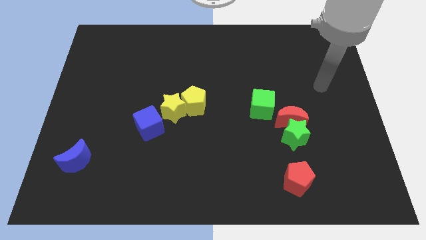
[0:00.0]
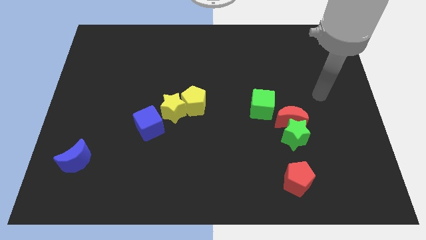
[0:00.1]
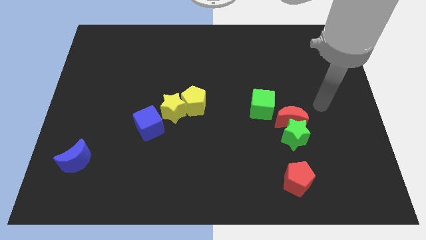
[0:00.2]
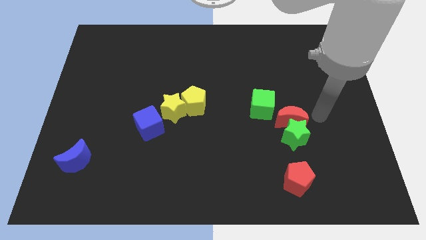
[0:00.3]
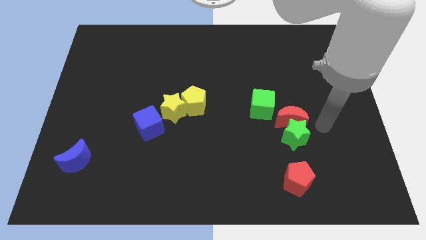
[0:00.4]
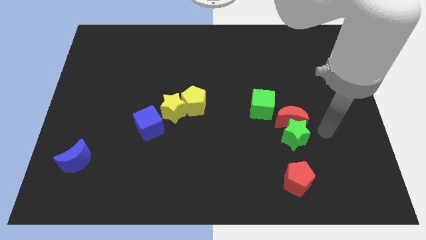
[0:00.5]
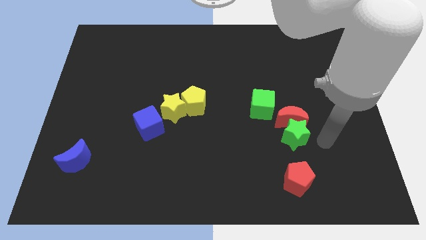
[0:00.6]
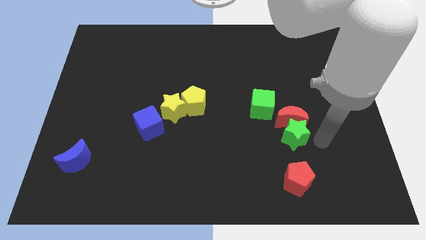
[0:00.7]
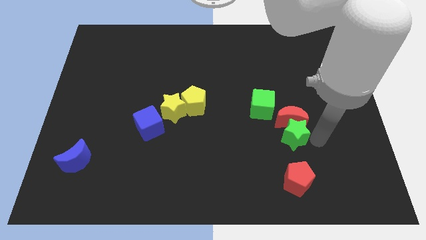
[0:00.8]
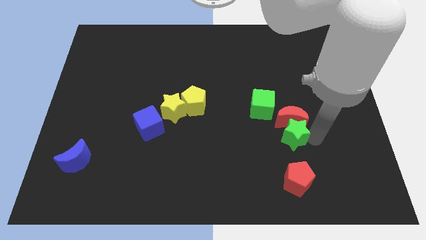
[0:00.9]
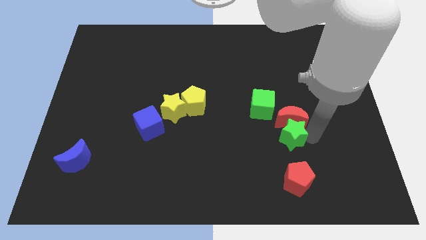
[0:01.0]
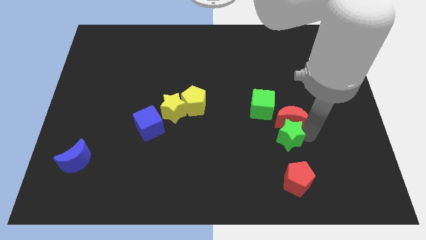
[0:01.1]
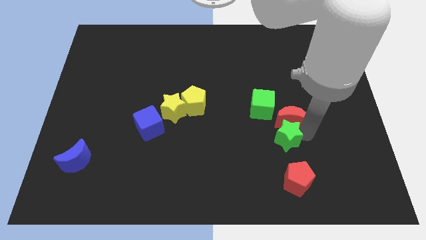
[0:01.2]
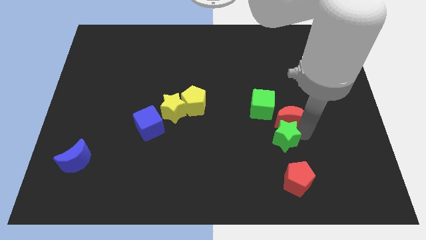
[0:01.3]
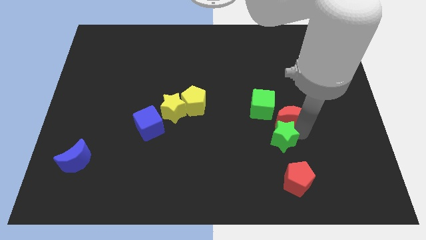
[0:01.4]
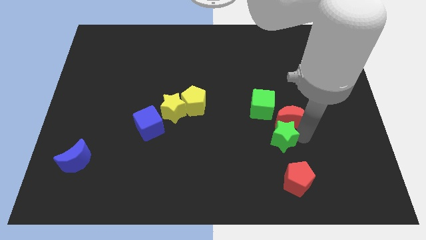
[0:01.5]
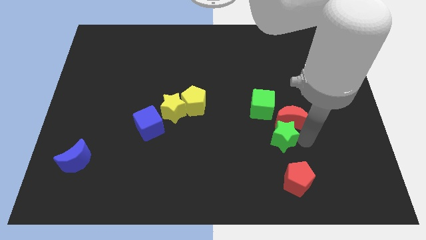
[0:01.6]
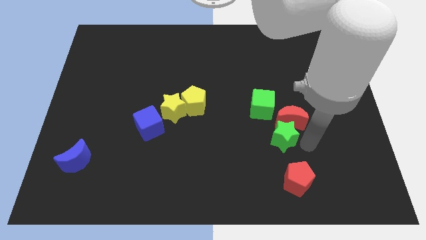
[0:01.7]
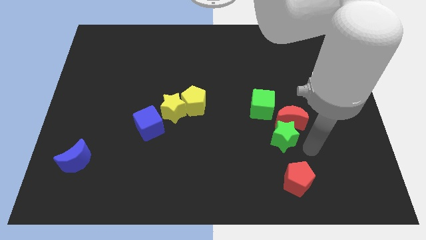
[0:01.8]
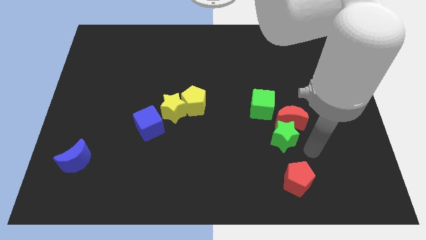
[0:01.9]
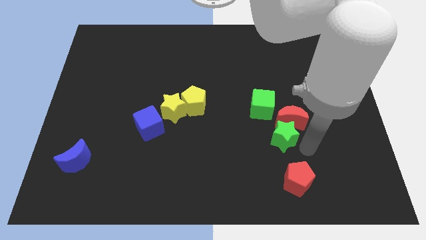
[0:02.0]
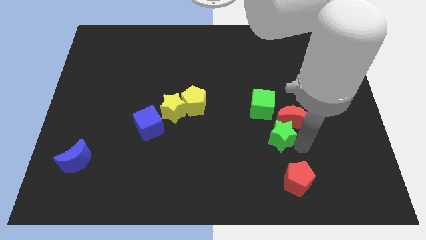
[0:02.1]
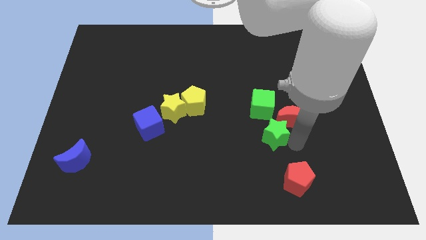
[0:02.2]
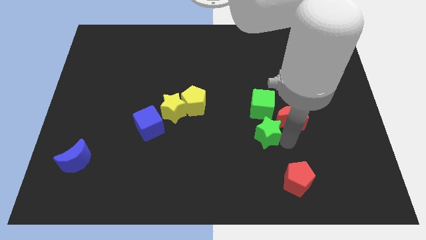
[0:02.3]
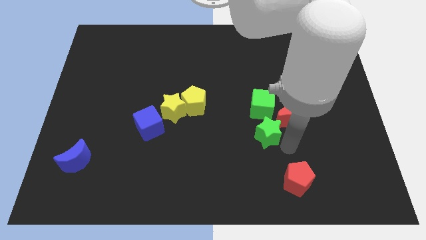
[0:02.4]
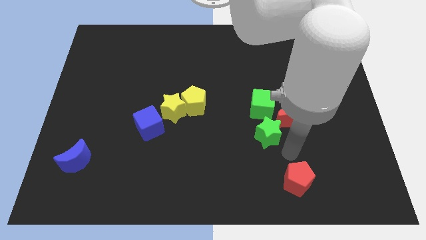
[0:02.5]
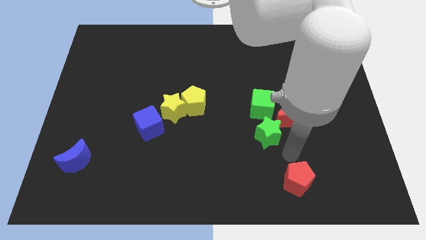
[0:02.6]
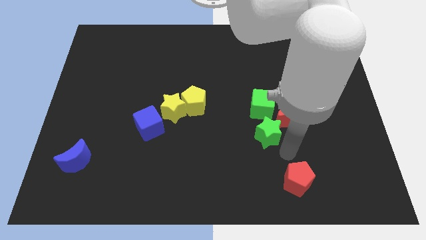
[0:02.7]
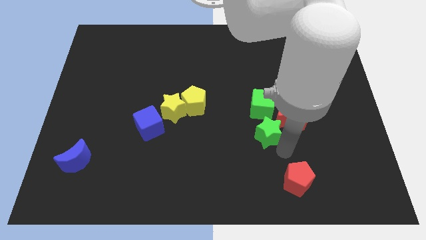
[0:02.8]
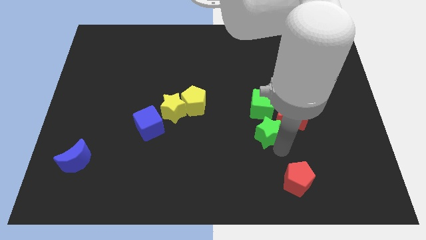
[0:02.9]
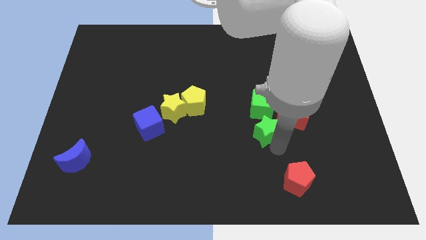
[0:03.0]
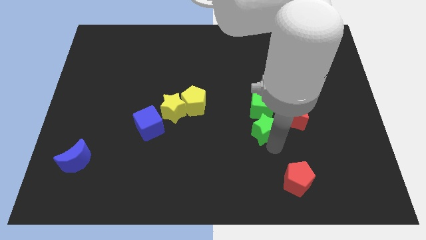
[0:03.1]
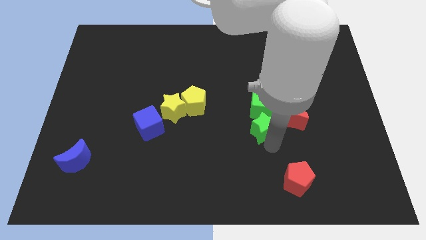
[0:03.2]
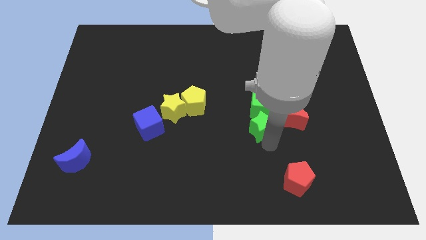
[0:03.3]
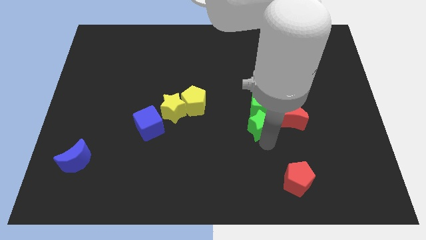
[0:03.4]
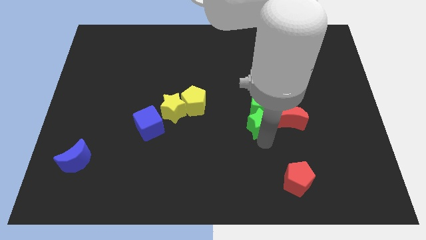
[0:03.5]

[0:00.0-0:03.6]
slide the green star slightly up and left

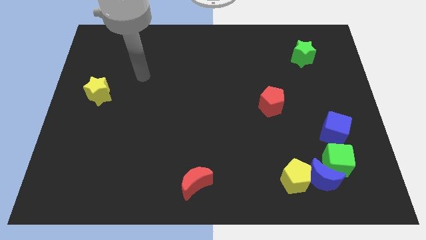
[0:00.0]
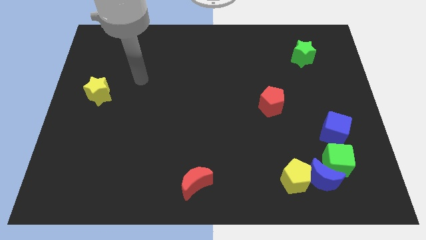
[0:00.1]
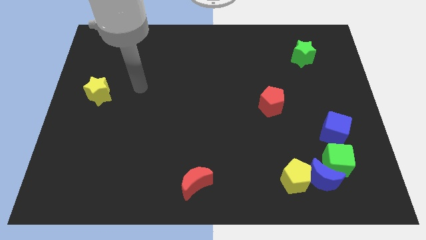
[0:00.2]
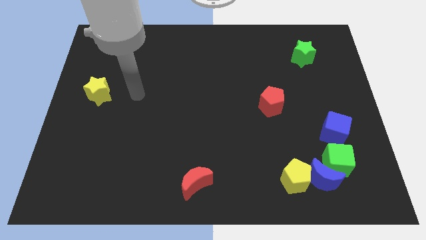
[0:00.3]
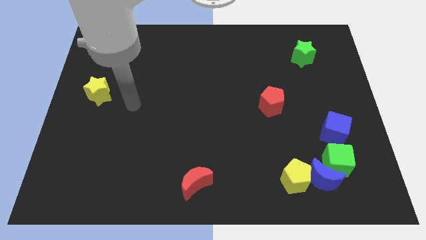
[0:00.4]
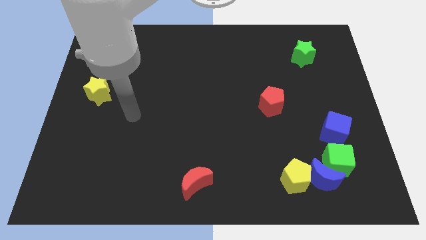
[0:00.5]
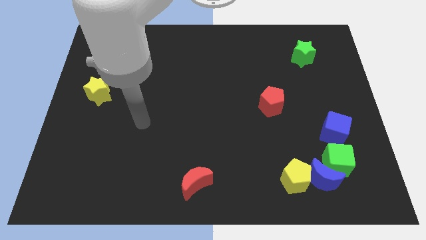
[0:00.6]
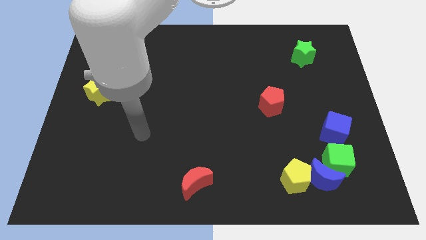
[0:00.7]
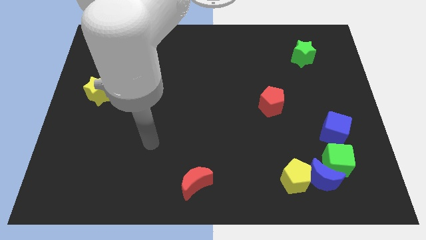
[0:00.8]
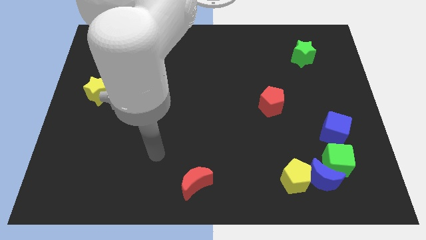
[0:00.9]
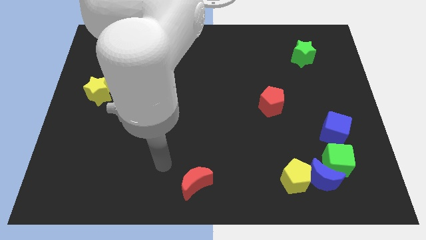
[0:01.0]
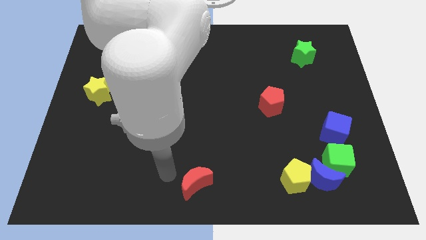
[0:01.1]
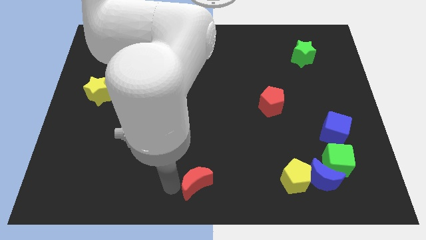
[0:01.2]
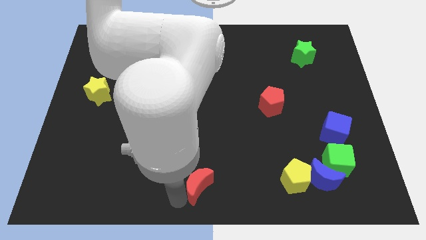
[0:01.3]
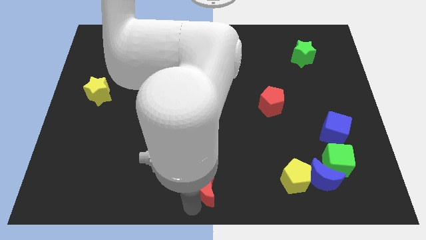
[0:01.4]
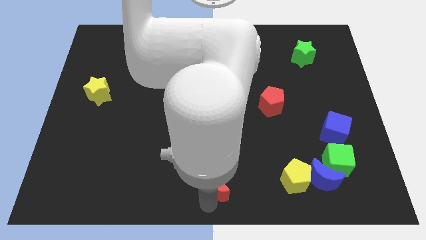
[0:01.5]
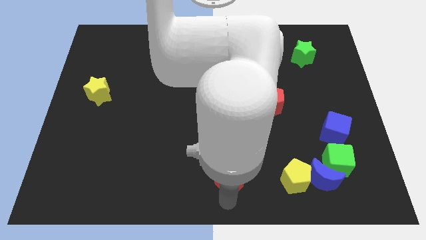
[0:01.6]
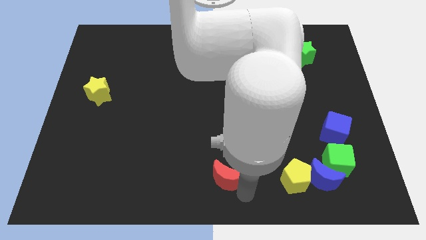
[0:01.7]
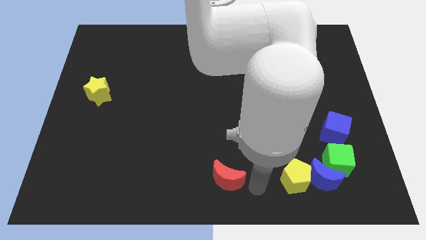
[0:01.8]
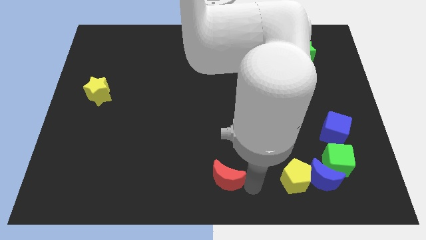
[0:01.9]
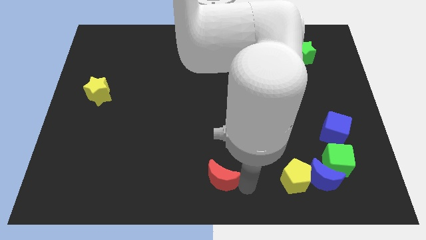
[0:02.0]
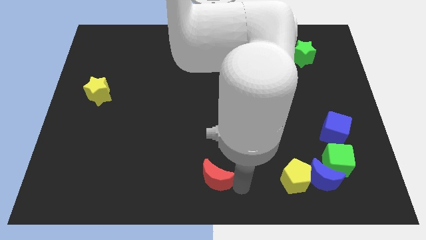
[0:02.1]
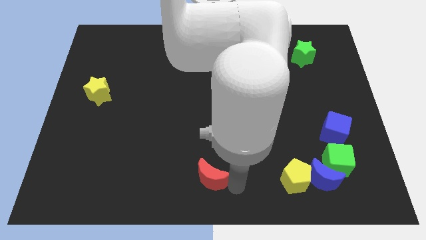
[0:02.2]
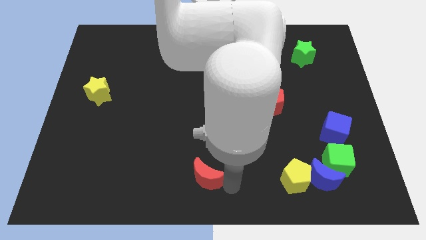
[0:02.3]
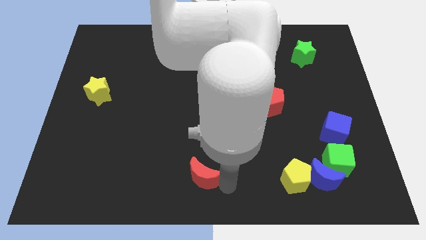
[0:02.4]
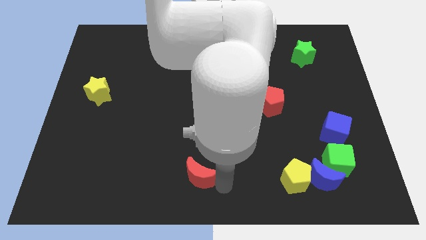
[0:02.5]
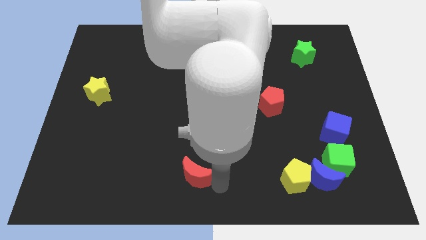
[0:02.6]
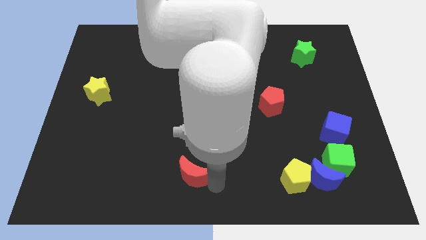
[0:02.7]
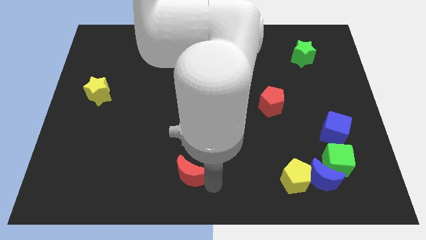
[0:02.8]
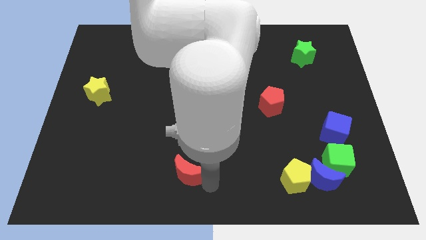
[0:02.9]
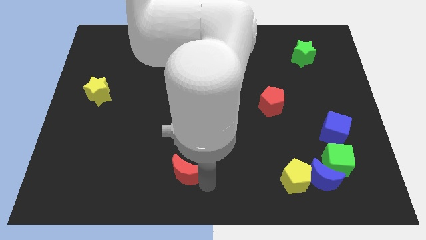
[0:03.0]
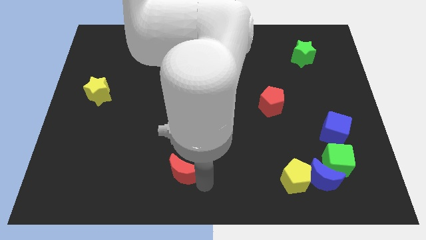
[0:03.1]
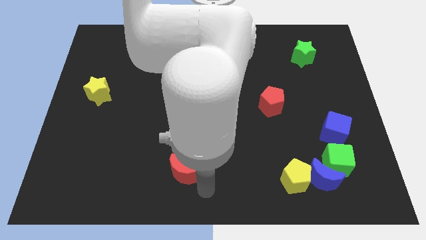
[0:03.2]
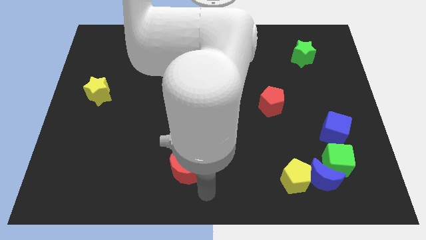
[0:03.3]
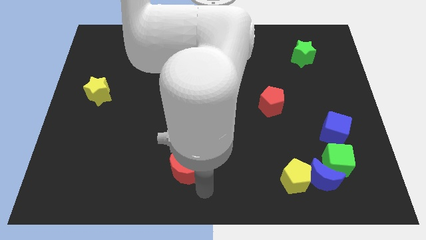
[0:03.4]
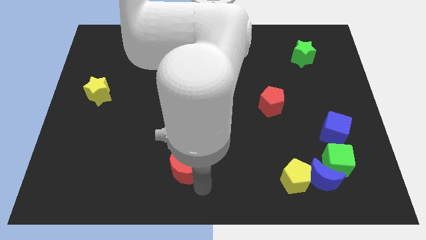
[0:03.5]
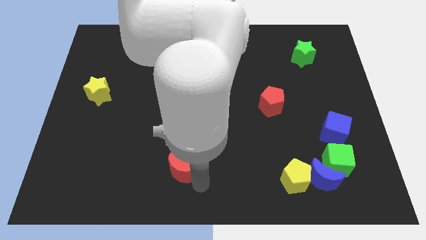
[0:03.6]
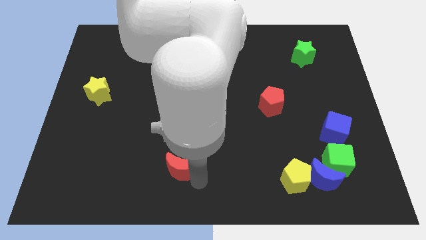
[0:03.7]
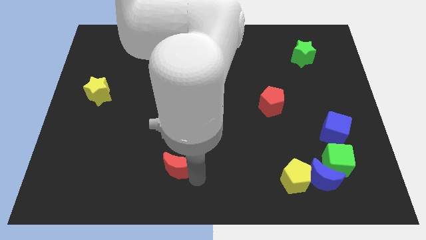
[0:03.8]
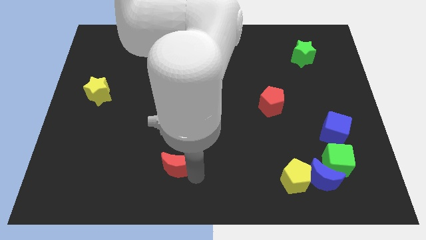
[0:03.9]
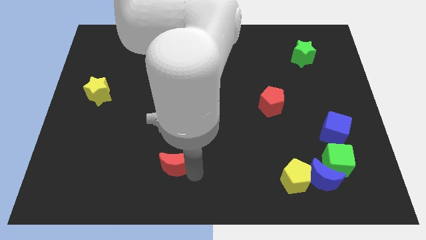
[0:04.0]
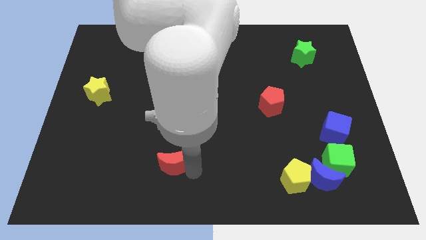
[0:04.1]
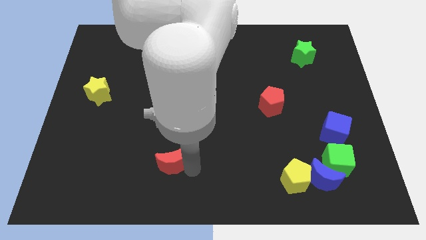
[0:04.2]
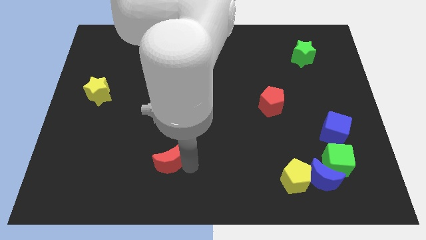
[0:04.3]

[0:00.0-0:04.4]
move the red moon up and left somewhat
